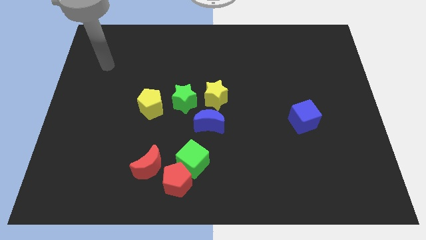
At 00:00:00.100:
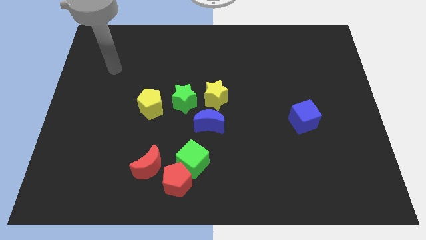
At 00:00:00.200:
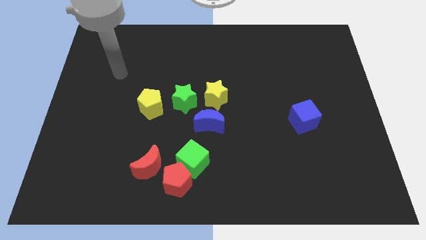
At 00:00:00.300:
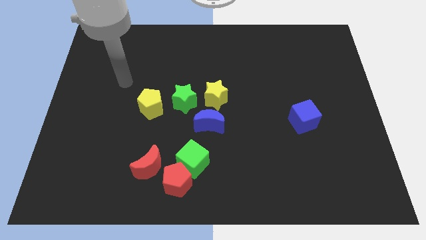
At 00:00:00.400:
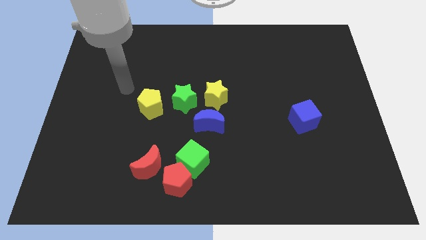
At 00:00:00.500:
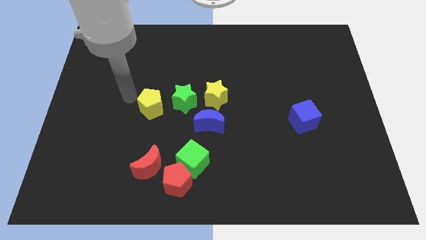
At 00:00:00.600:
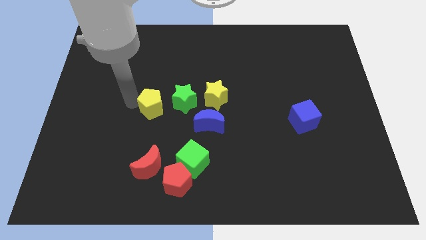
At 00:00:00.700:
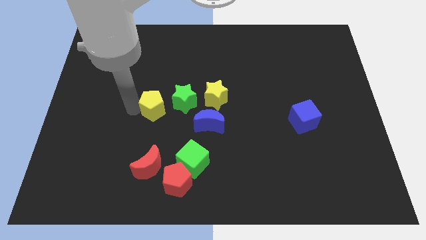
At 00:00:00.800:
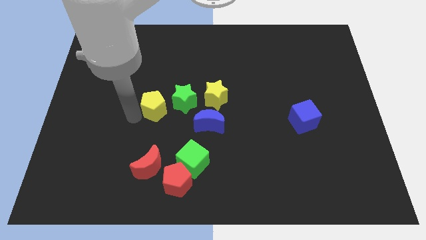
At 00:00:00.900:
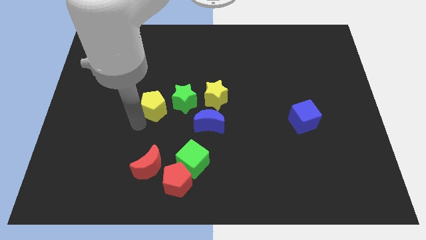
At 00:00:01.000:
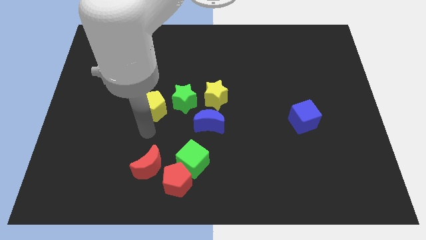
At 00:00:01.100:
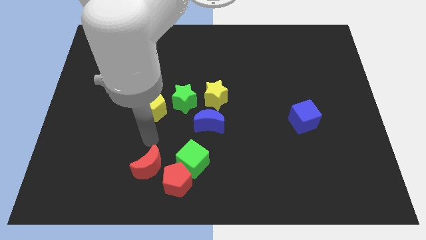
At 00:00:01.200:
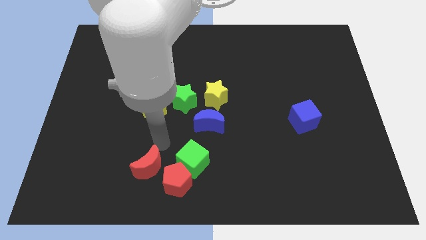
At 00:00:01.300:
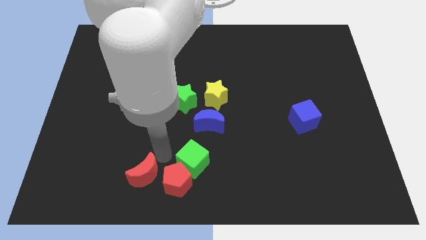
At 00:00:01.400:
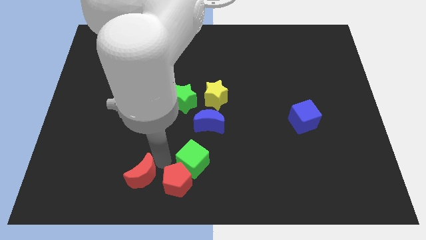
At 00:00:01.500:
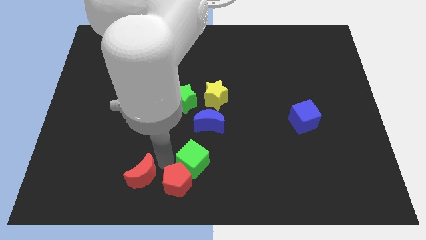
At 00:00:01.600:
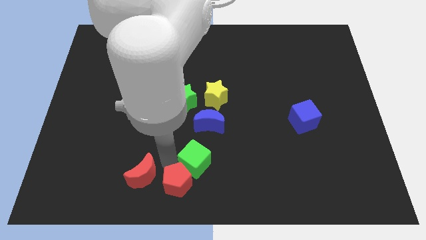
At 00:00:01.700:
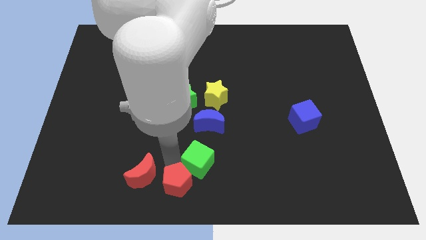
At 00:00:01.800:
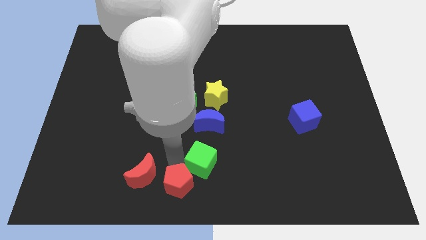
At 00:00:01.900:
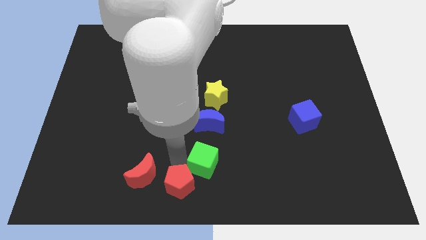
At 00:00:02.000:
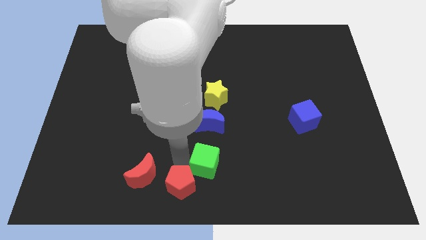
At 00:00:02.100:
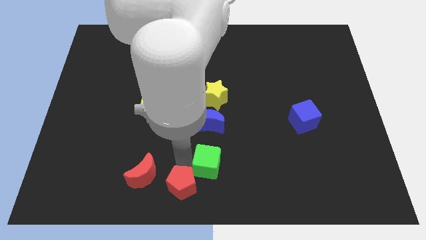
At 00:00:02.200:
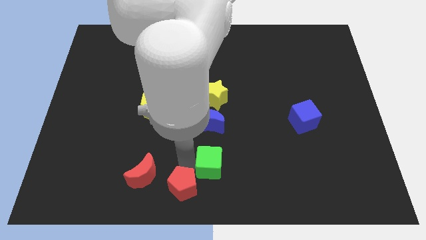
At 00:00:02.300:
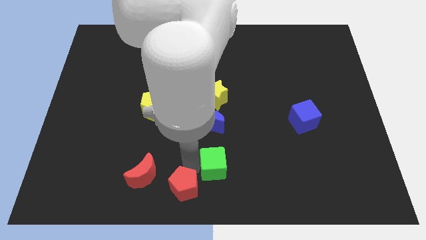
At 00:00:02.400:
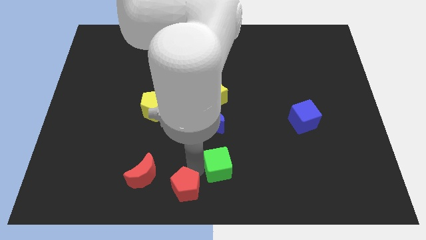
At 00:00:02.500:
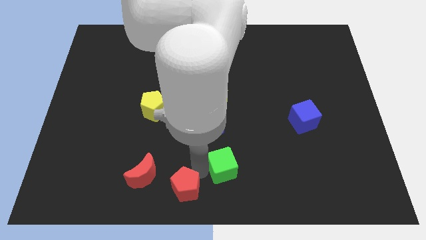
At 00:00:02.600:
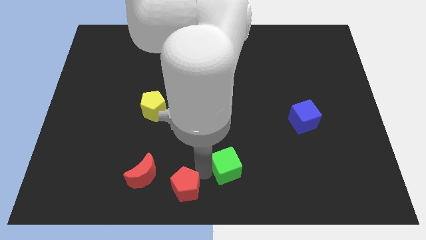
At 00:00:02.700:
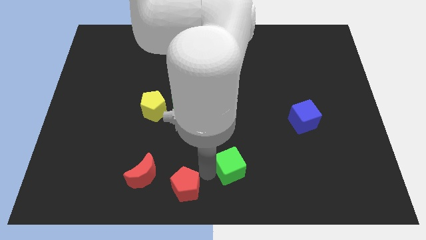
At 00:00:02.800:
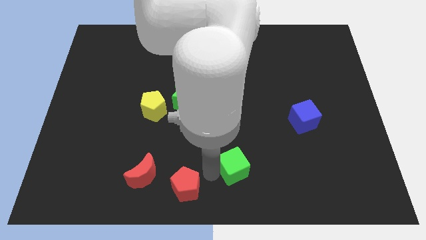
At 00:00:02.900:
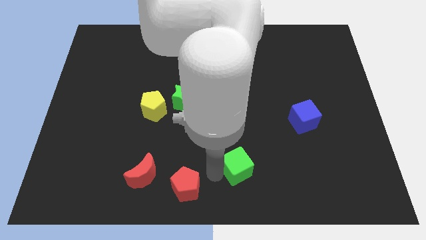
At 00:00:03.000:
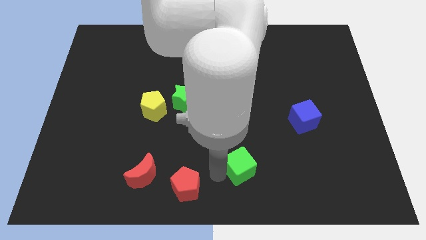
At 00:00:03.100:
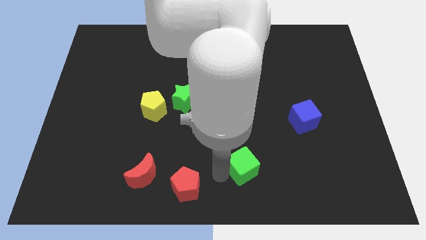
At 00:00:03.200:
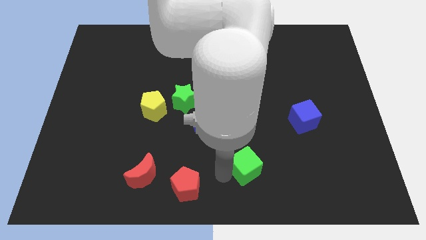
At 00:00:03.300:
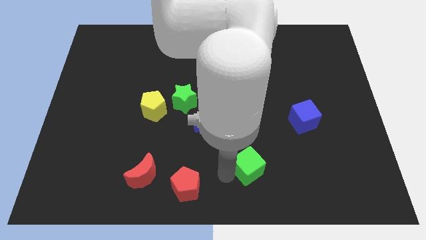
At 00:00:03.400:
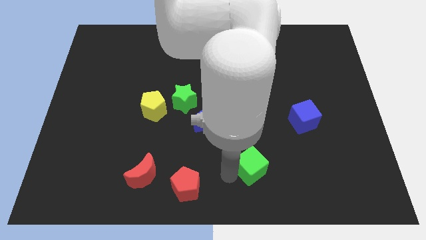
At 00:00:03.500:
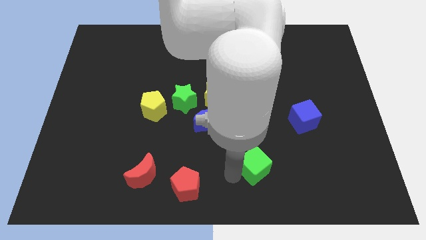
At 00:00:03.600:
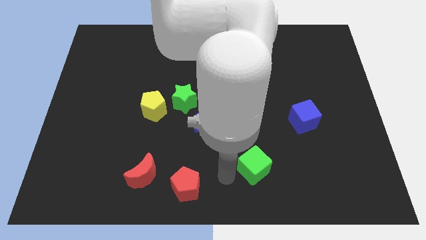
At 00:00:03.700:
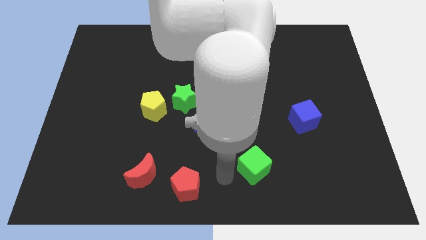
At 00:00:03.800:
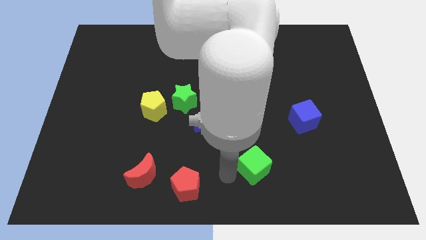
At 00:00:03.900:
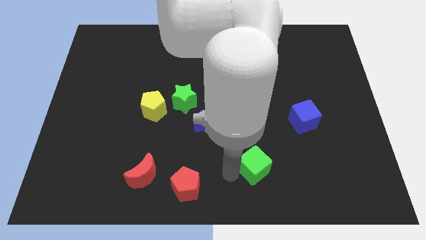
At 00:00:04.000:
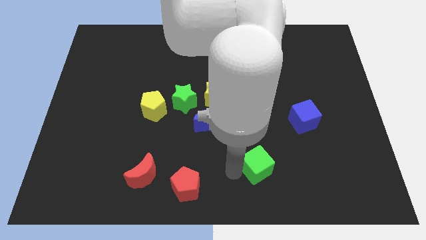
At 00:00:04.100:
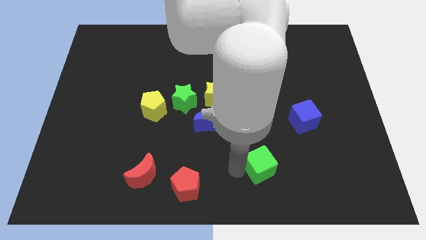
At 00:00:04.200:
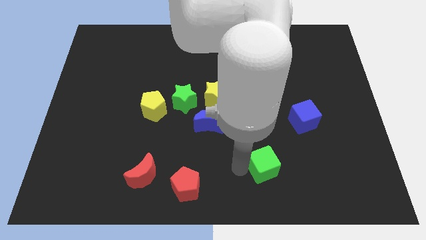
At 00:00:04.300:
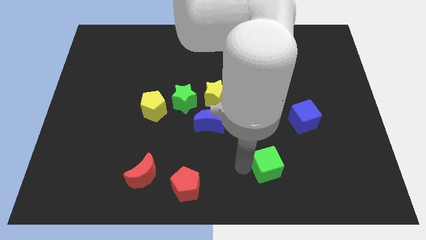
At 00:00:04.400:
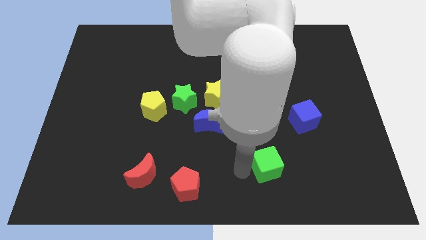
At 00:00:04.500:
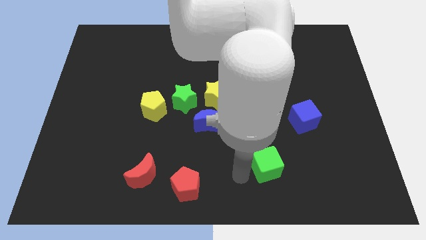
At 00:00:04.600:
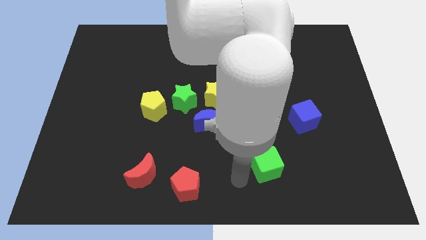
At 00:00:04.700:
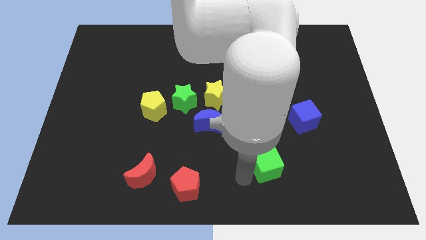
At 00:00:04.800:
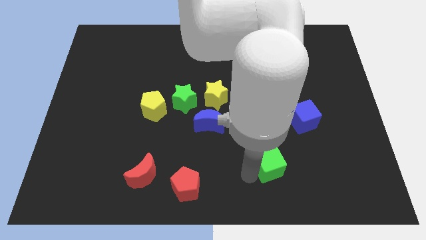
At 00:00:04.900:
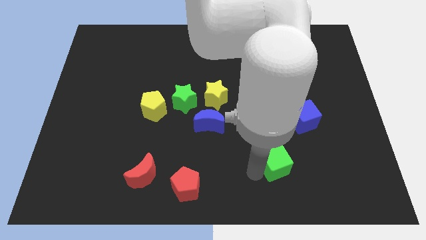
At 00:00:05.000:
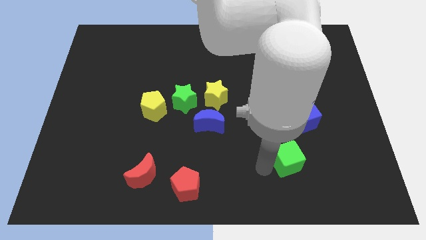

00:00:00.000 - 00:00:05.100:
push the green cube right

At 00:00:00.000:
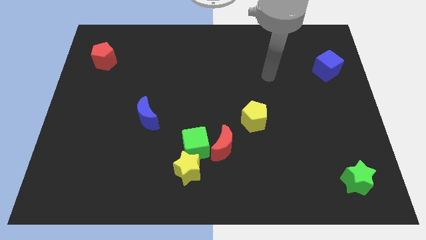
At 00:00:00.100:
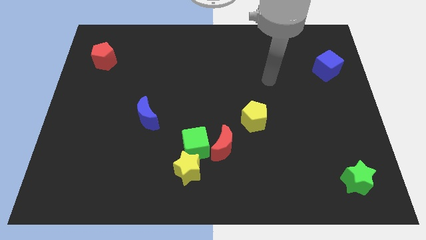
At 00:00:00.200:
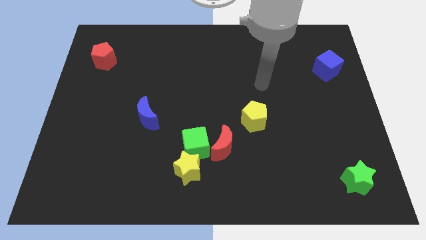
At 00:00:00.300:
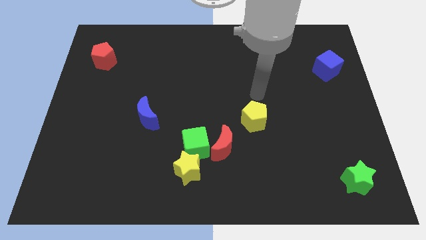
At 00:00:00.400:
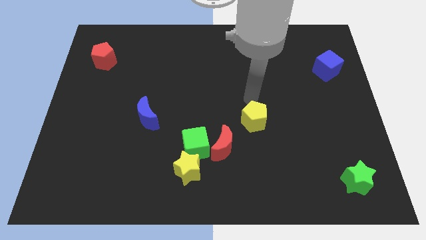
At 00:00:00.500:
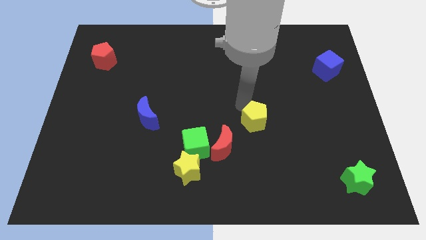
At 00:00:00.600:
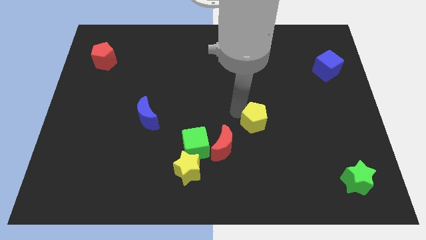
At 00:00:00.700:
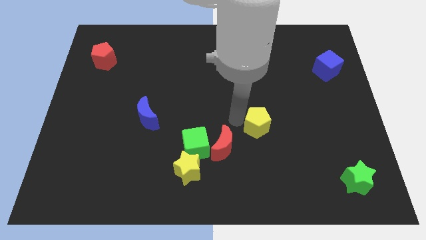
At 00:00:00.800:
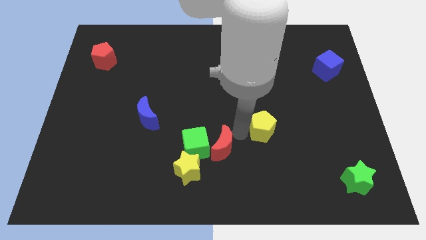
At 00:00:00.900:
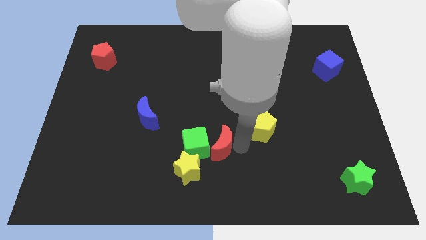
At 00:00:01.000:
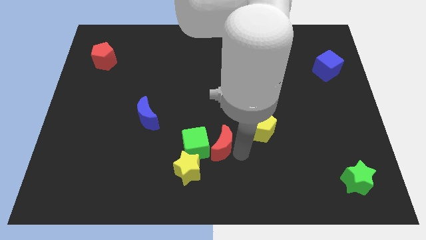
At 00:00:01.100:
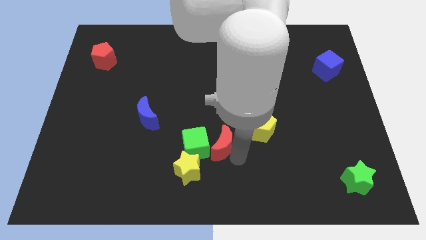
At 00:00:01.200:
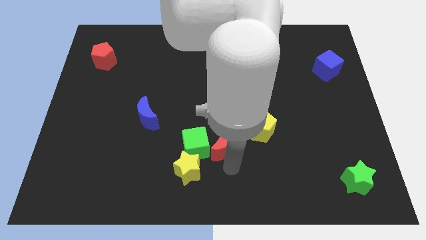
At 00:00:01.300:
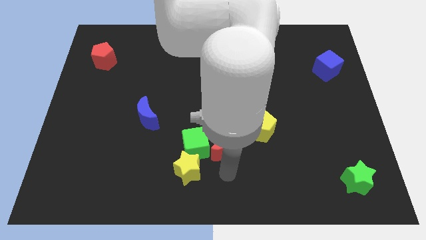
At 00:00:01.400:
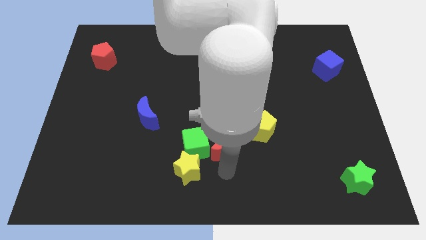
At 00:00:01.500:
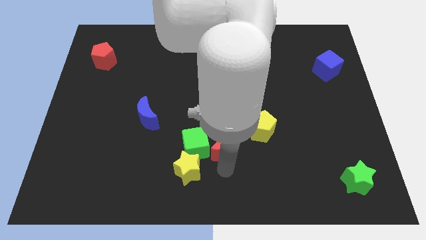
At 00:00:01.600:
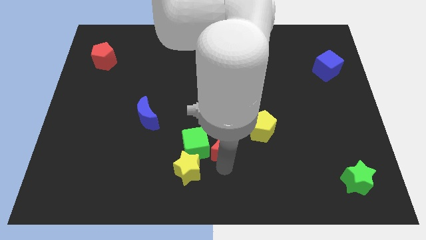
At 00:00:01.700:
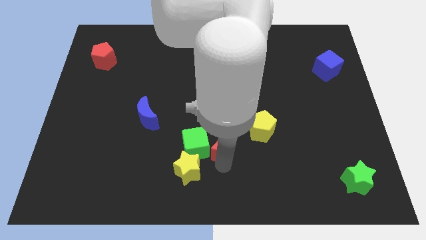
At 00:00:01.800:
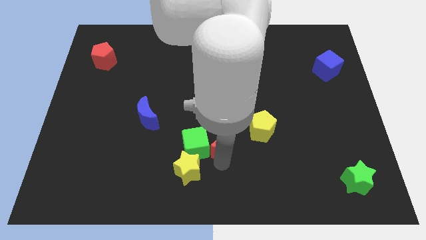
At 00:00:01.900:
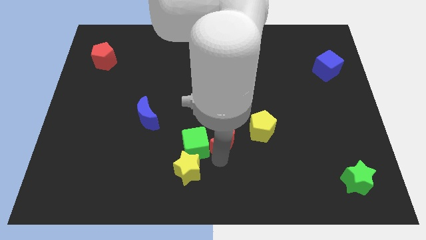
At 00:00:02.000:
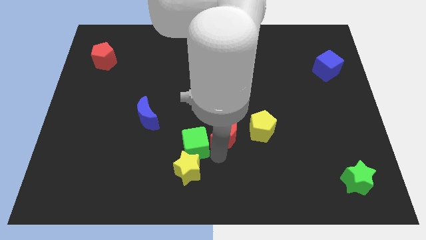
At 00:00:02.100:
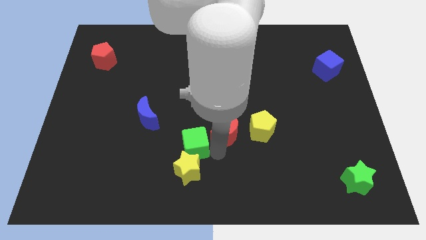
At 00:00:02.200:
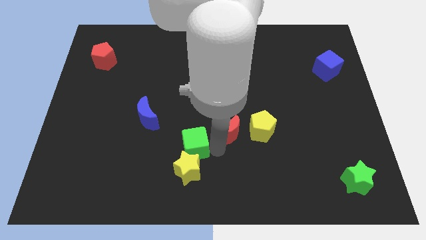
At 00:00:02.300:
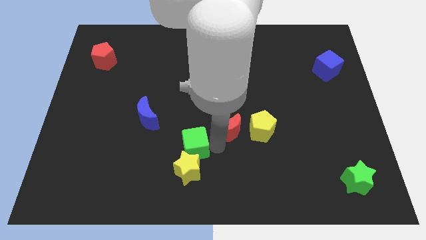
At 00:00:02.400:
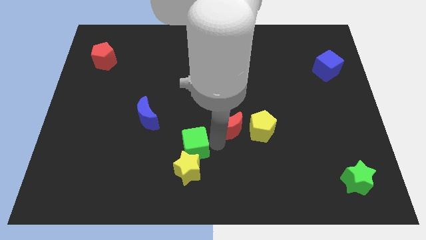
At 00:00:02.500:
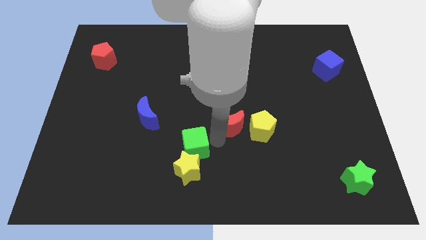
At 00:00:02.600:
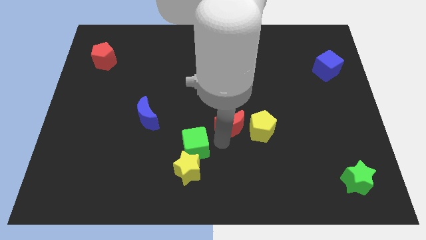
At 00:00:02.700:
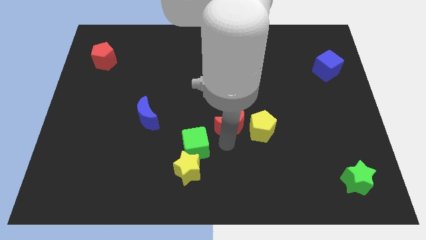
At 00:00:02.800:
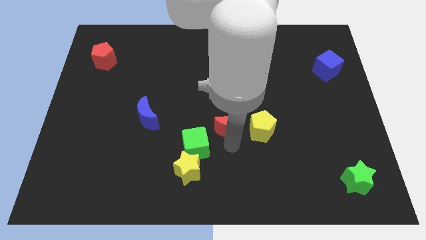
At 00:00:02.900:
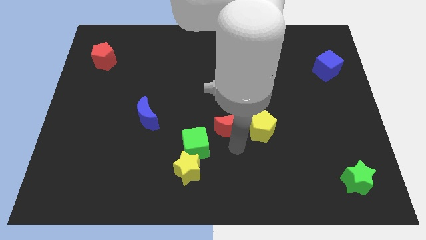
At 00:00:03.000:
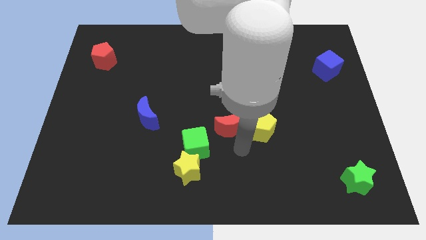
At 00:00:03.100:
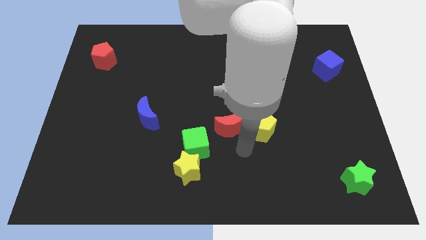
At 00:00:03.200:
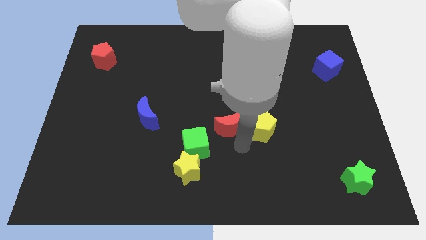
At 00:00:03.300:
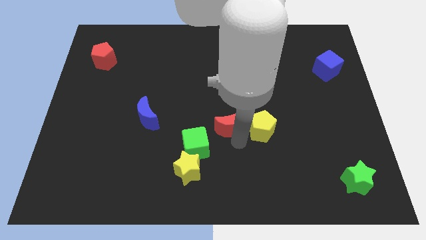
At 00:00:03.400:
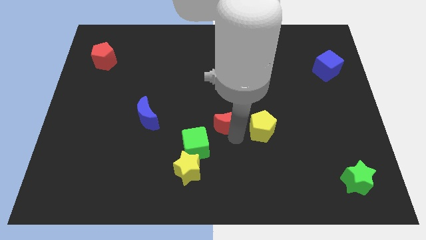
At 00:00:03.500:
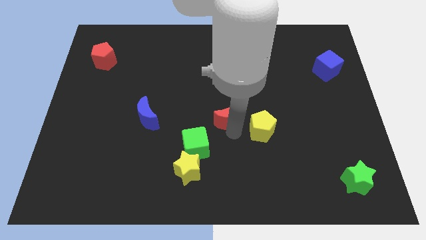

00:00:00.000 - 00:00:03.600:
slide the red moon a bit upwards
